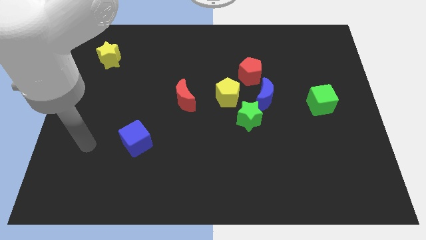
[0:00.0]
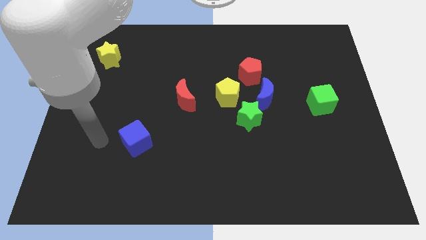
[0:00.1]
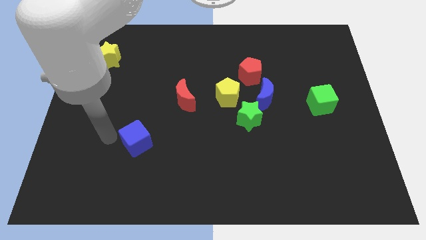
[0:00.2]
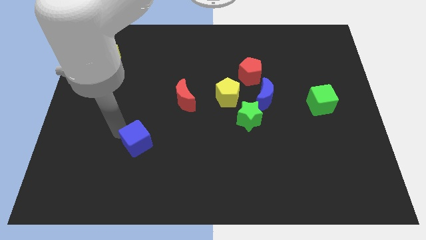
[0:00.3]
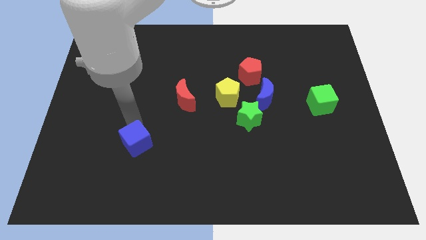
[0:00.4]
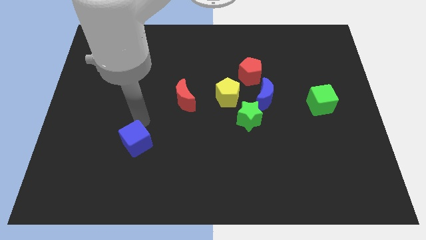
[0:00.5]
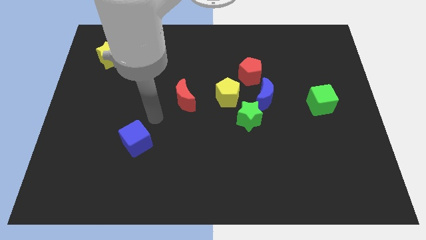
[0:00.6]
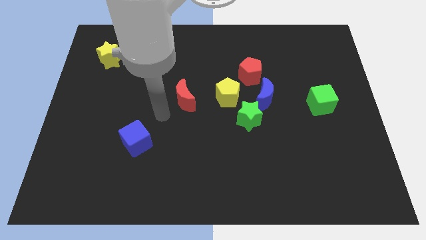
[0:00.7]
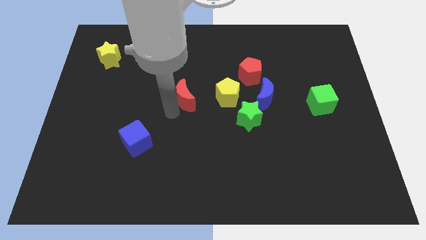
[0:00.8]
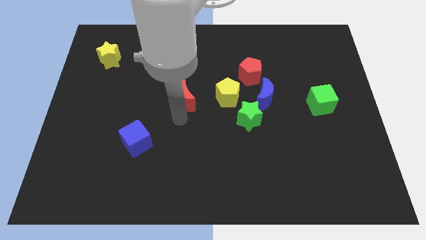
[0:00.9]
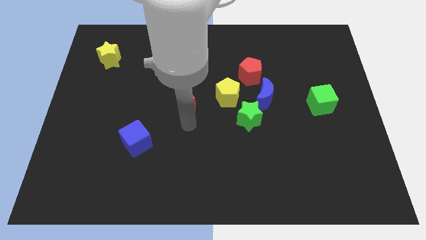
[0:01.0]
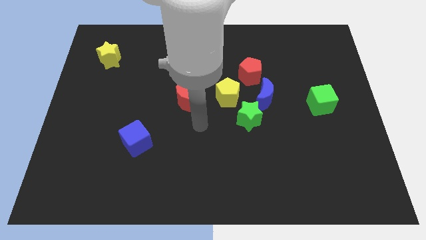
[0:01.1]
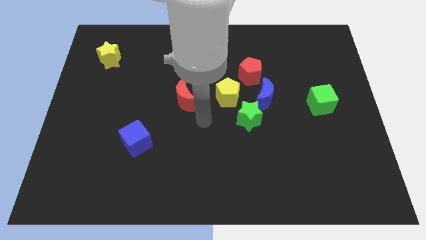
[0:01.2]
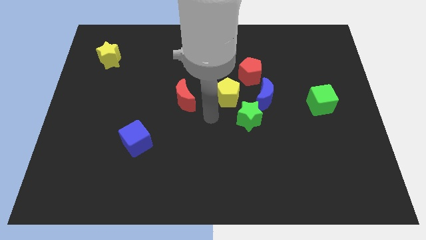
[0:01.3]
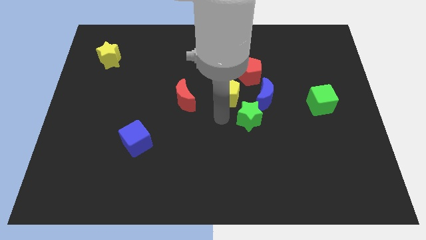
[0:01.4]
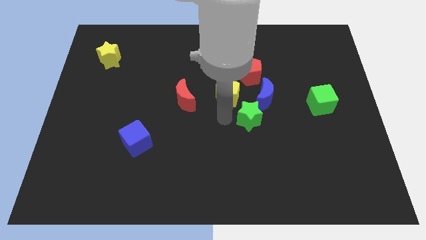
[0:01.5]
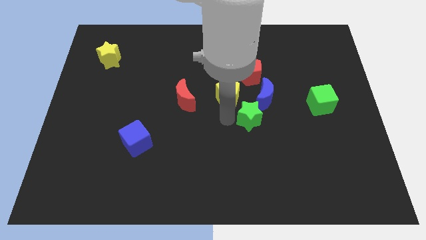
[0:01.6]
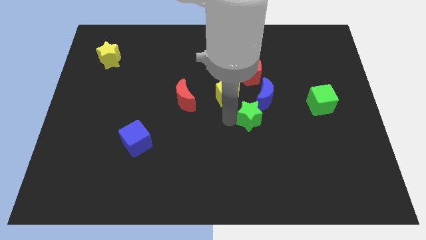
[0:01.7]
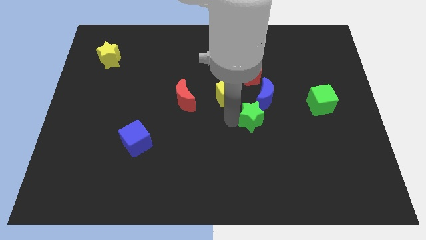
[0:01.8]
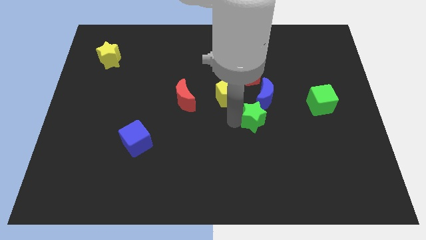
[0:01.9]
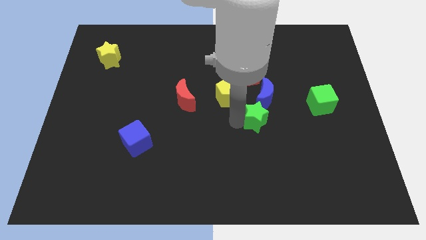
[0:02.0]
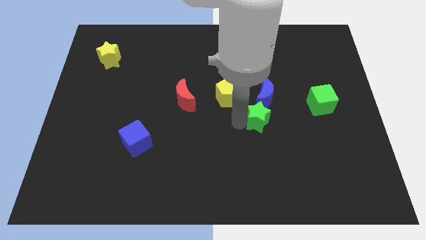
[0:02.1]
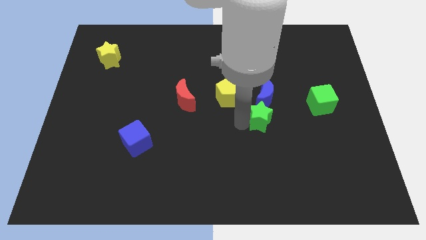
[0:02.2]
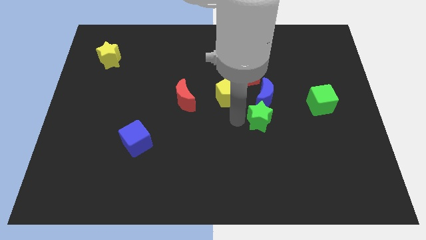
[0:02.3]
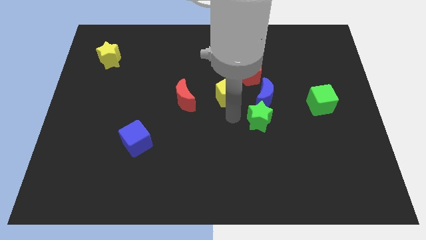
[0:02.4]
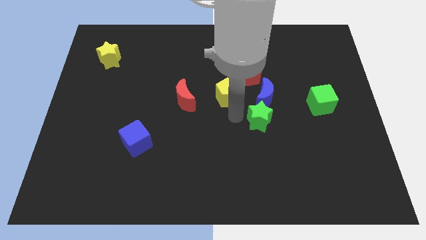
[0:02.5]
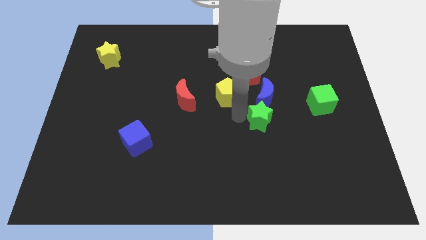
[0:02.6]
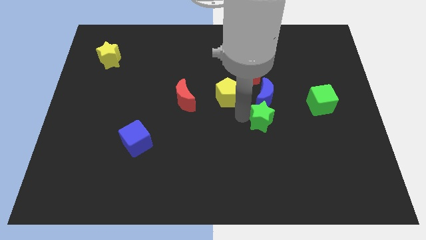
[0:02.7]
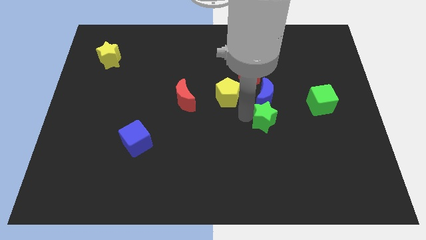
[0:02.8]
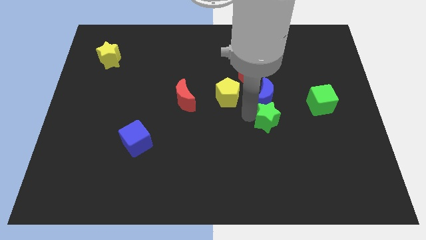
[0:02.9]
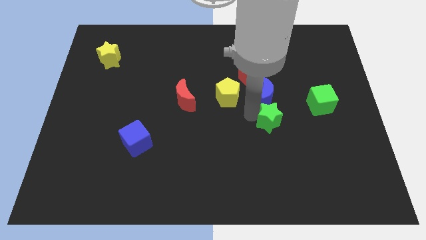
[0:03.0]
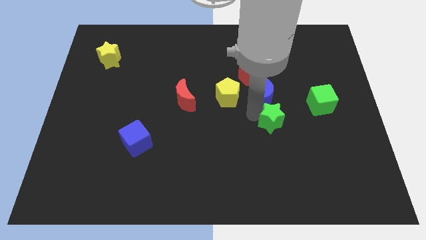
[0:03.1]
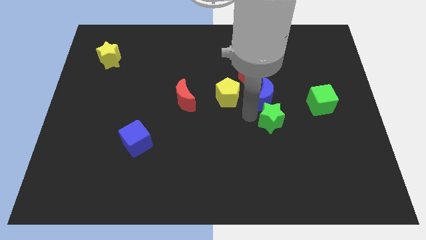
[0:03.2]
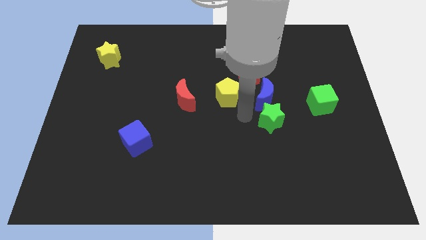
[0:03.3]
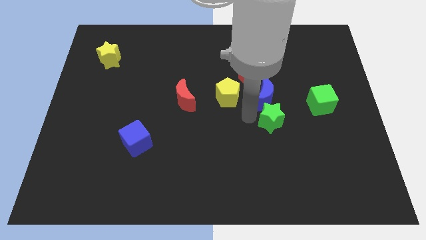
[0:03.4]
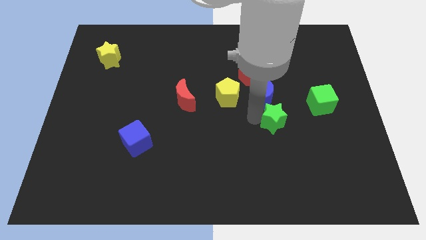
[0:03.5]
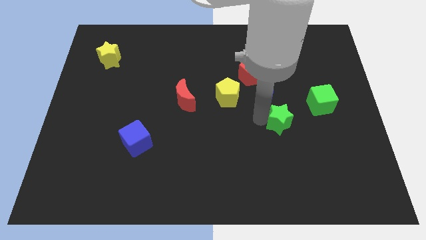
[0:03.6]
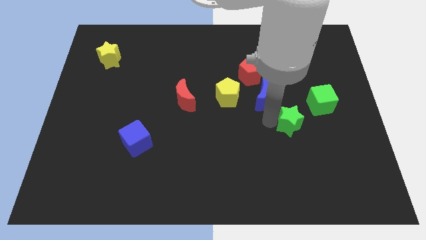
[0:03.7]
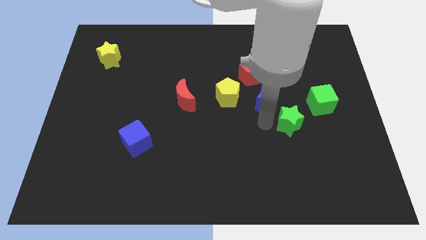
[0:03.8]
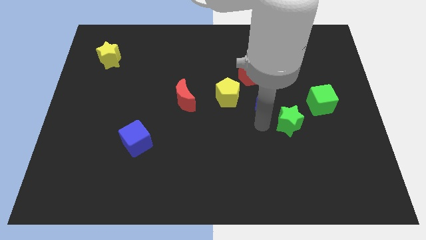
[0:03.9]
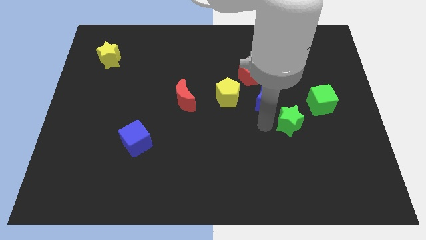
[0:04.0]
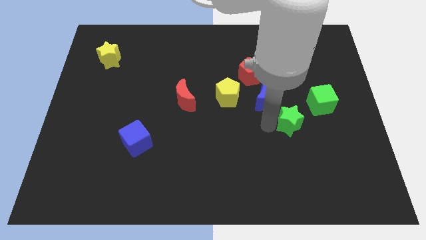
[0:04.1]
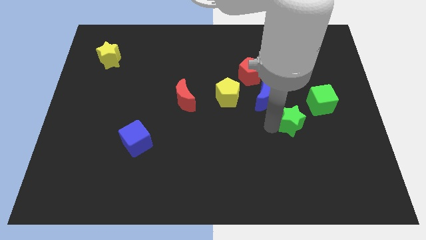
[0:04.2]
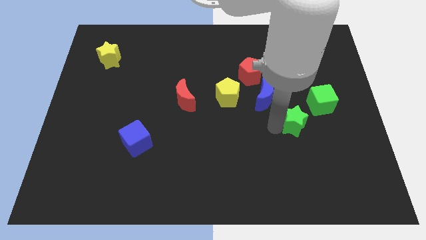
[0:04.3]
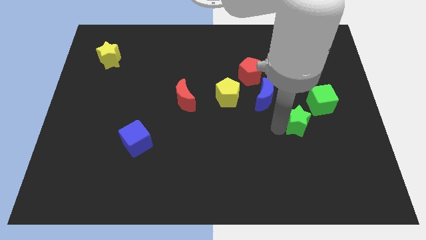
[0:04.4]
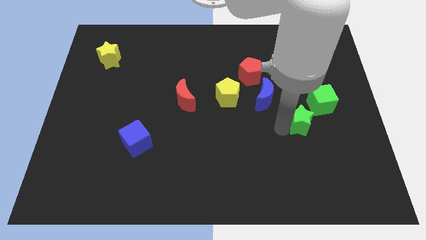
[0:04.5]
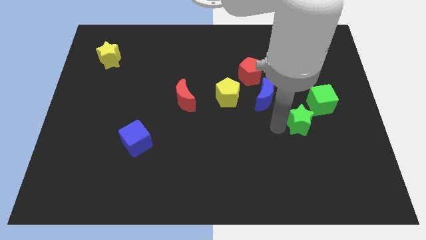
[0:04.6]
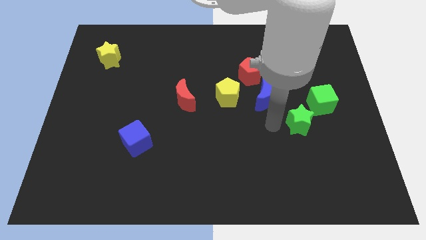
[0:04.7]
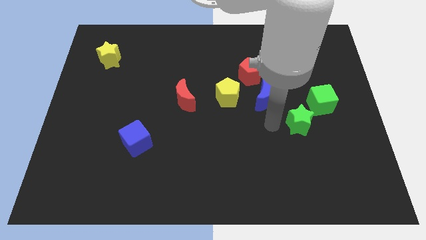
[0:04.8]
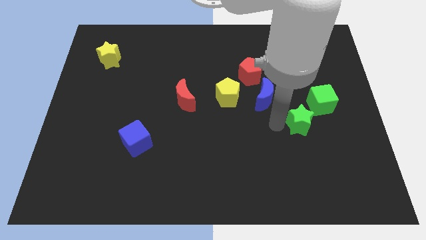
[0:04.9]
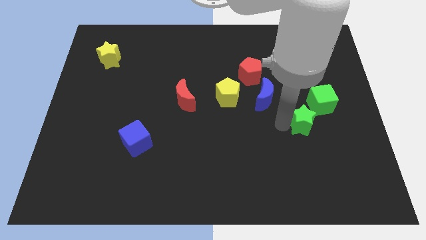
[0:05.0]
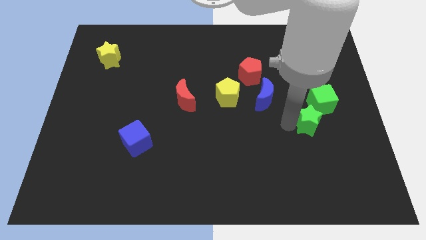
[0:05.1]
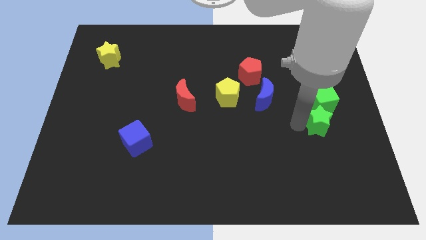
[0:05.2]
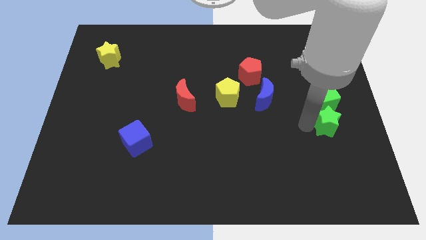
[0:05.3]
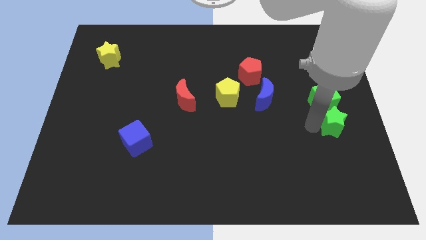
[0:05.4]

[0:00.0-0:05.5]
put the green star to the right side
